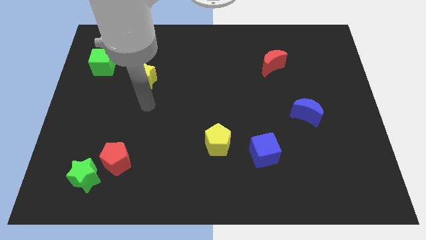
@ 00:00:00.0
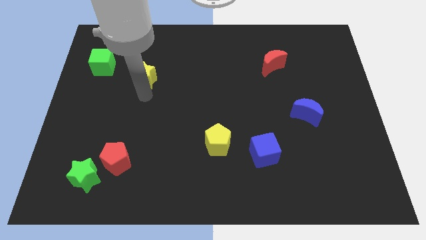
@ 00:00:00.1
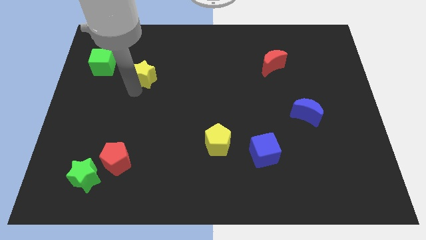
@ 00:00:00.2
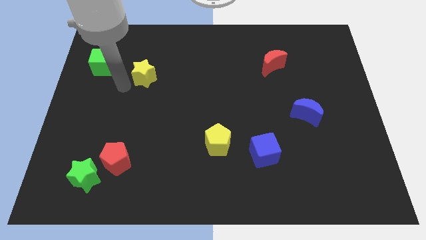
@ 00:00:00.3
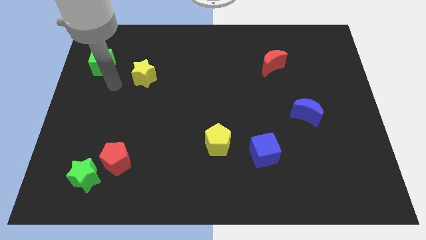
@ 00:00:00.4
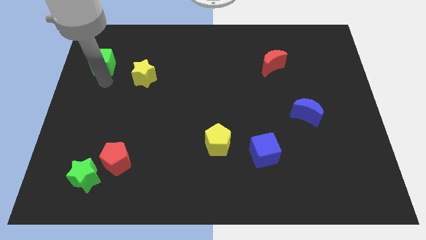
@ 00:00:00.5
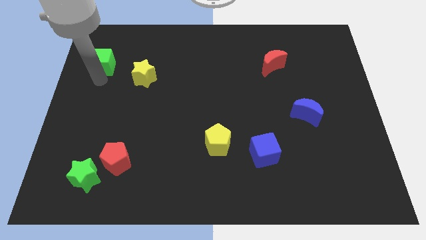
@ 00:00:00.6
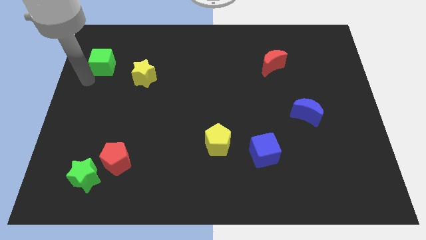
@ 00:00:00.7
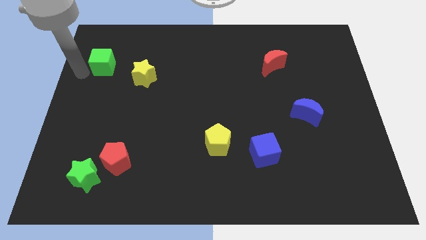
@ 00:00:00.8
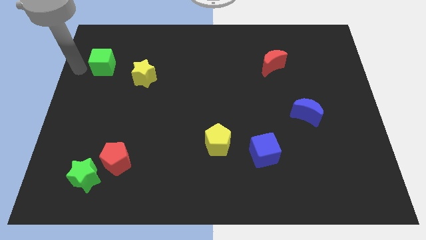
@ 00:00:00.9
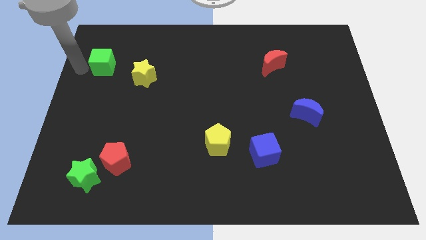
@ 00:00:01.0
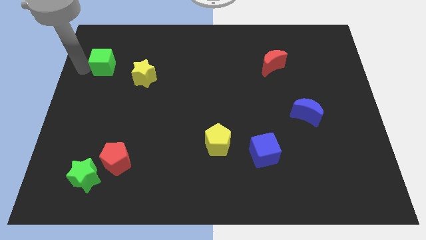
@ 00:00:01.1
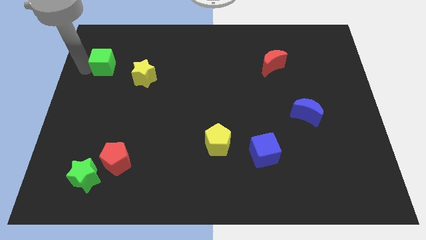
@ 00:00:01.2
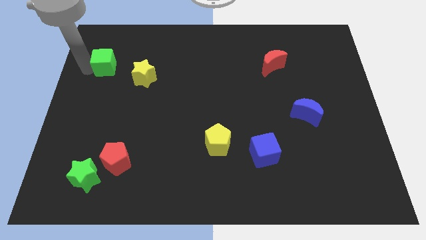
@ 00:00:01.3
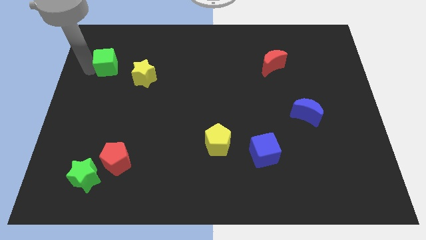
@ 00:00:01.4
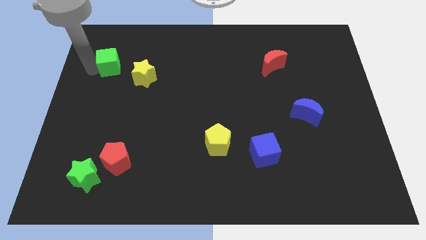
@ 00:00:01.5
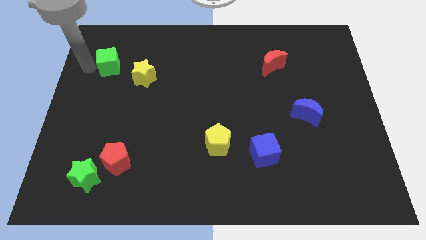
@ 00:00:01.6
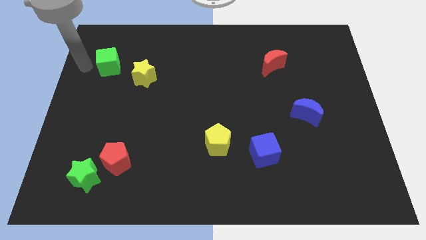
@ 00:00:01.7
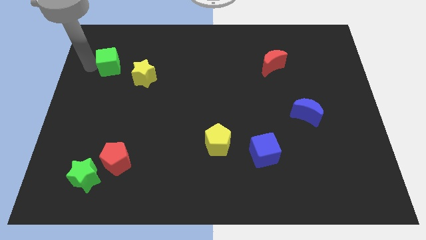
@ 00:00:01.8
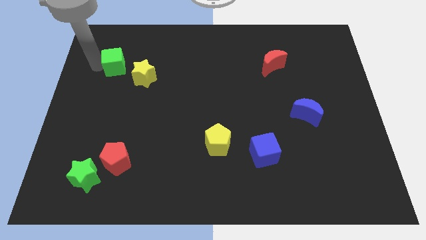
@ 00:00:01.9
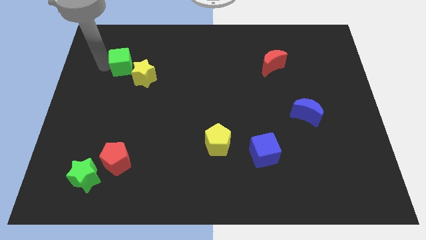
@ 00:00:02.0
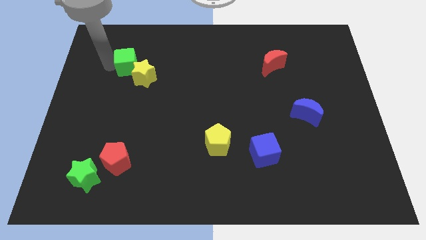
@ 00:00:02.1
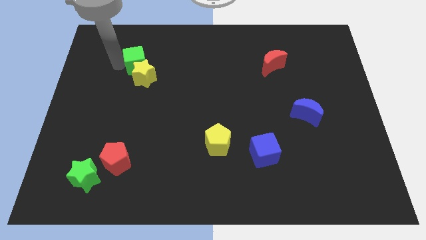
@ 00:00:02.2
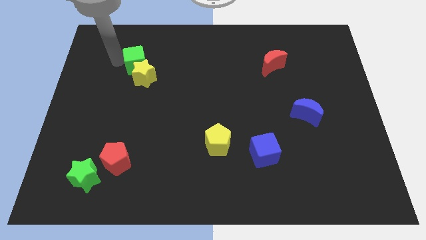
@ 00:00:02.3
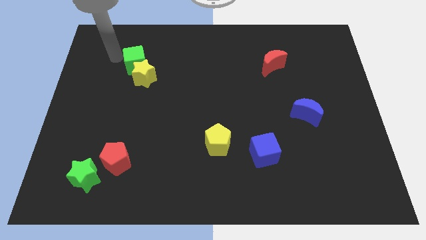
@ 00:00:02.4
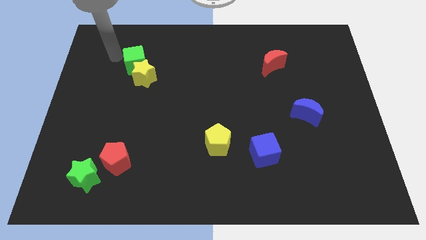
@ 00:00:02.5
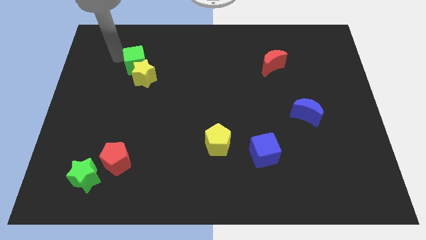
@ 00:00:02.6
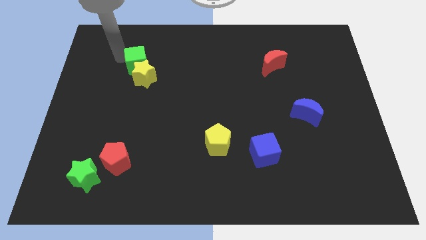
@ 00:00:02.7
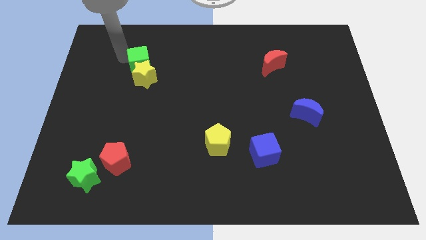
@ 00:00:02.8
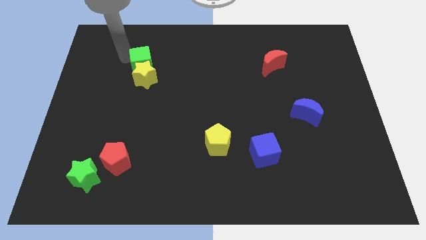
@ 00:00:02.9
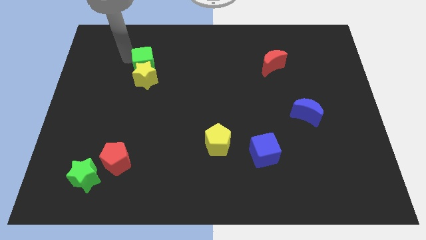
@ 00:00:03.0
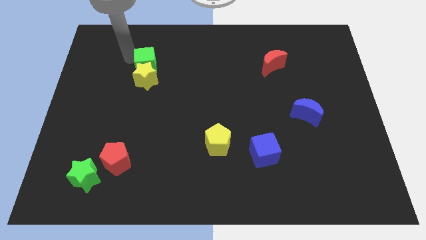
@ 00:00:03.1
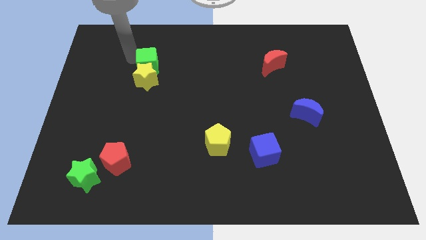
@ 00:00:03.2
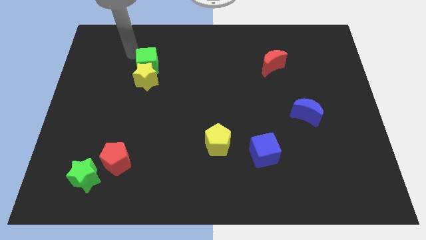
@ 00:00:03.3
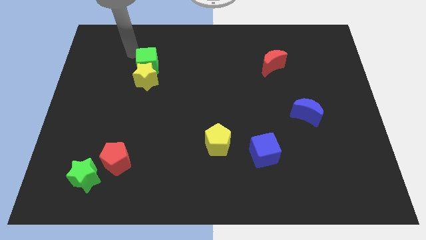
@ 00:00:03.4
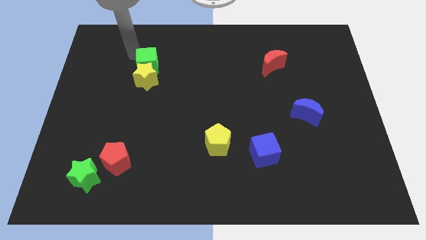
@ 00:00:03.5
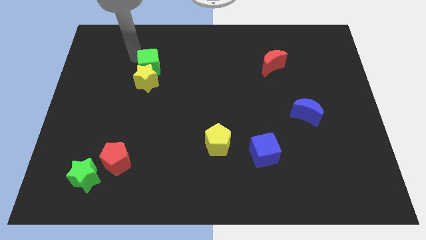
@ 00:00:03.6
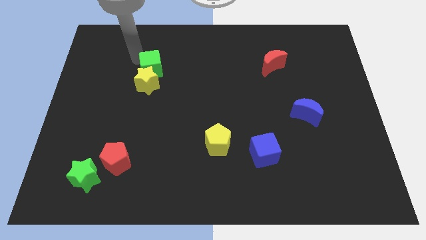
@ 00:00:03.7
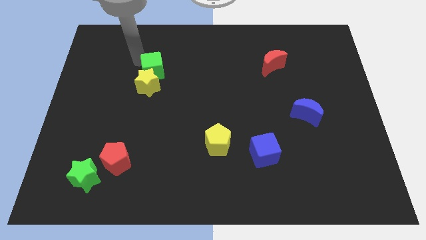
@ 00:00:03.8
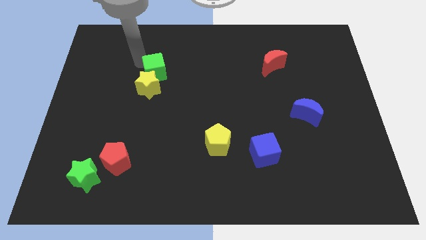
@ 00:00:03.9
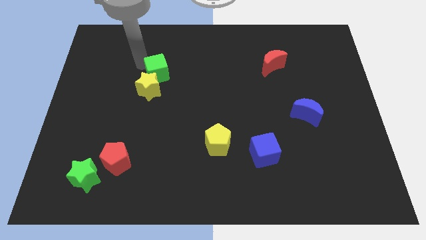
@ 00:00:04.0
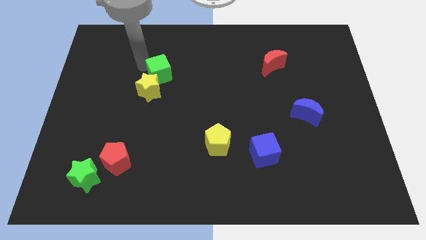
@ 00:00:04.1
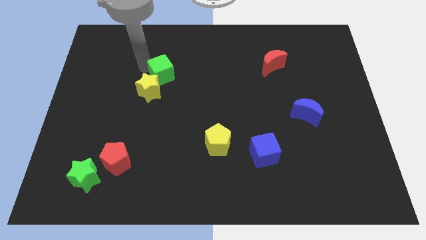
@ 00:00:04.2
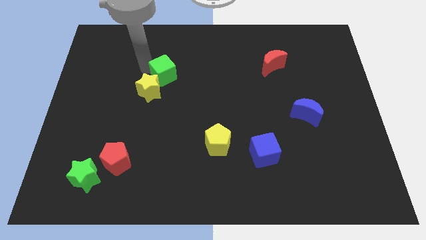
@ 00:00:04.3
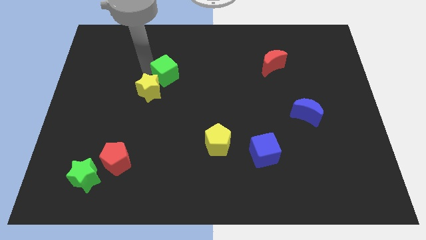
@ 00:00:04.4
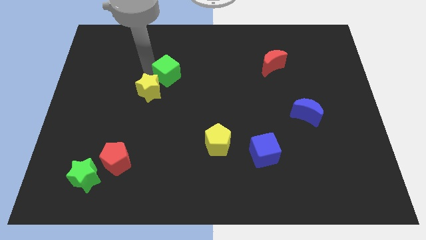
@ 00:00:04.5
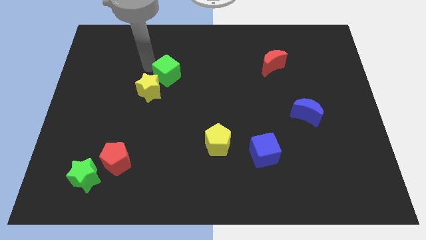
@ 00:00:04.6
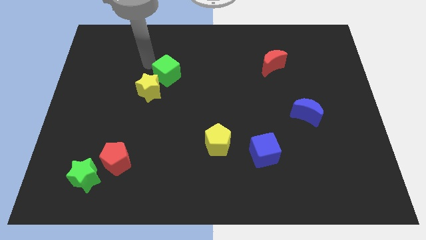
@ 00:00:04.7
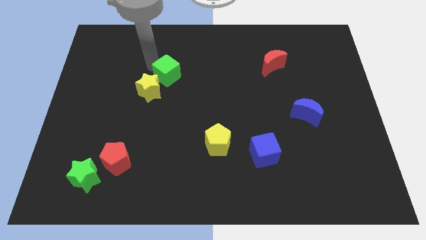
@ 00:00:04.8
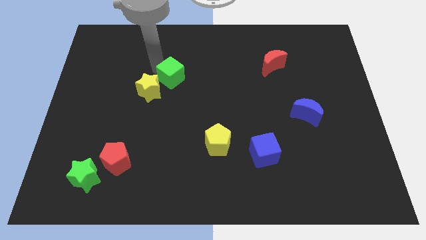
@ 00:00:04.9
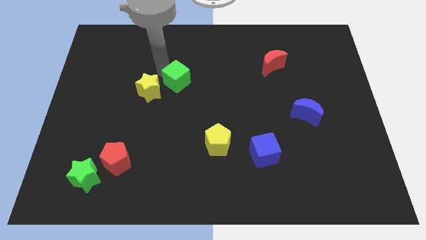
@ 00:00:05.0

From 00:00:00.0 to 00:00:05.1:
move the green cube to the center of the board
